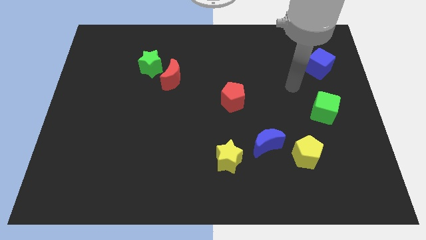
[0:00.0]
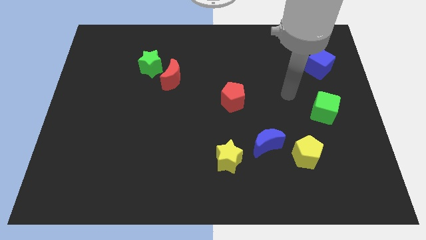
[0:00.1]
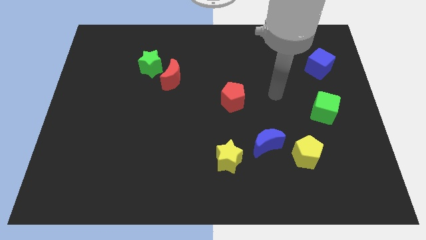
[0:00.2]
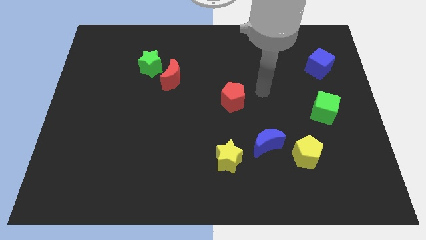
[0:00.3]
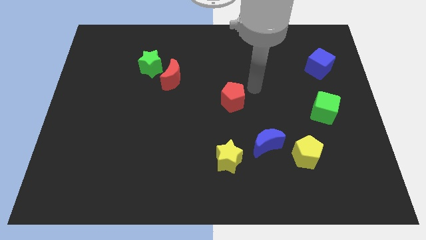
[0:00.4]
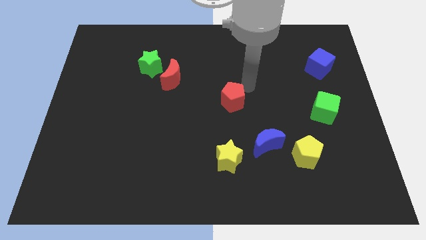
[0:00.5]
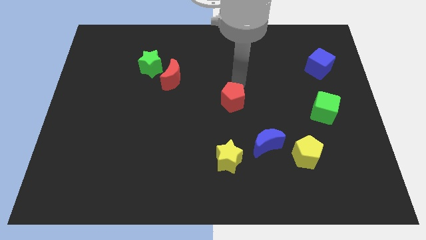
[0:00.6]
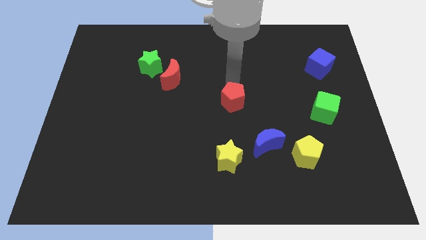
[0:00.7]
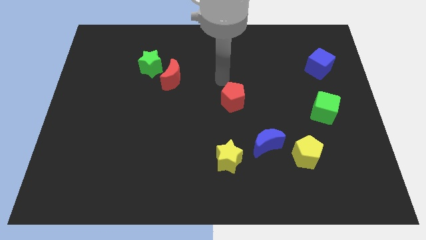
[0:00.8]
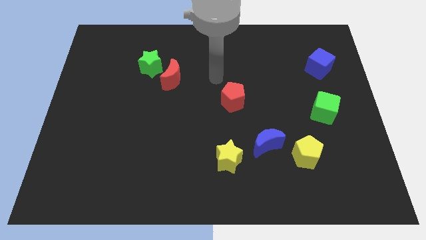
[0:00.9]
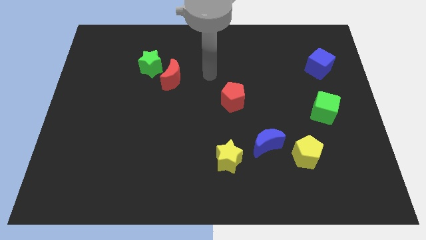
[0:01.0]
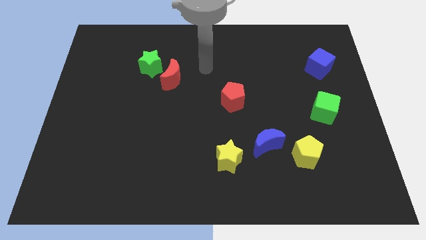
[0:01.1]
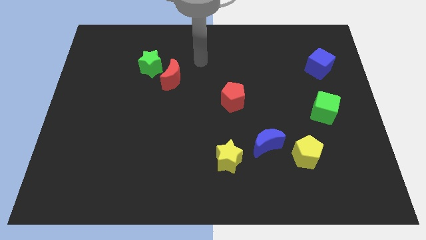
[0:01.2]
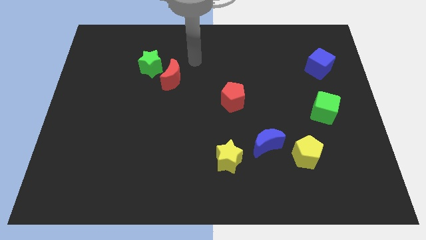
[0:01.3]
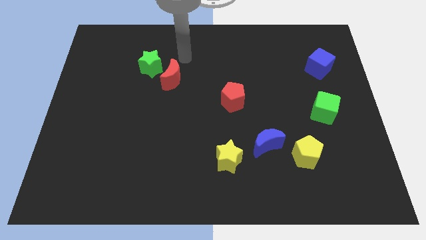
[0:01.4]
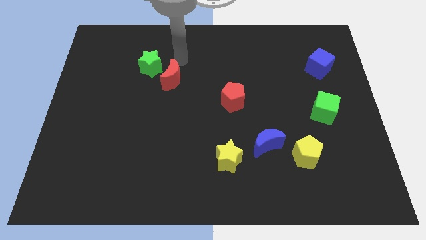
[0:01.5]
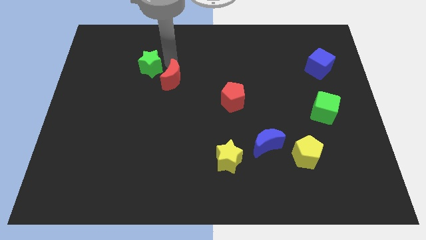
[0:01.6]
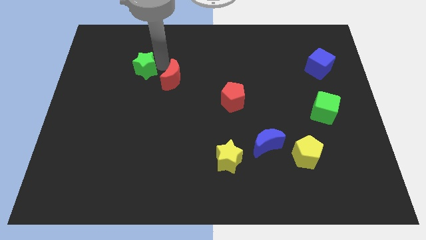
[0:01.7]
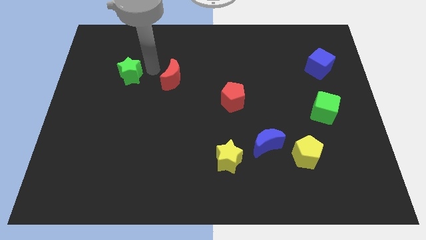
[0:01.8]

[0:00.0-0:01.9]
pull the red moon apart from the green star

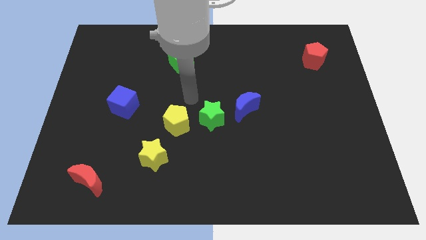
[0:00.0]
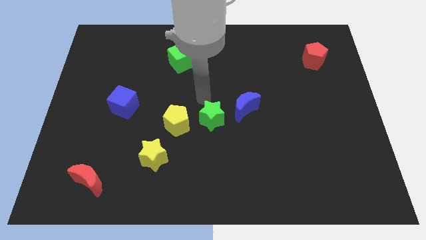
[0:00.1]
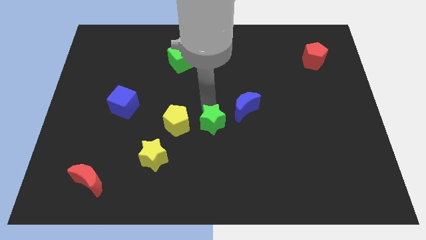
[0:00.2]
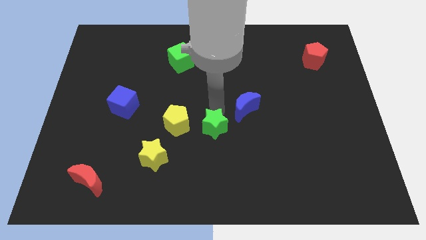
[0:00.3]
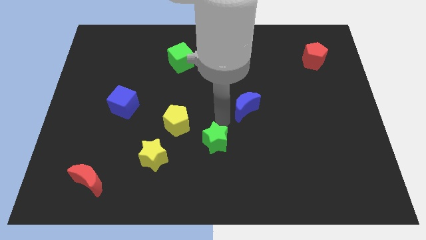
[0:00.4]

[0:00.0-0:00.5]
pull the blue moon apart from the green star

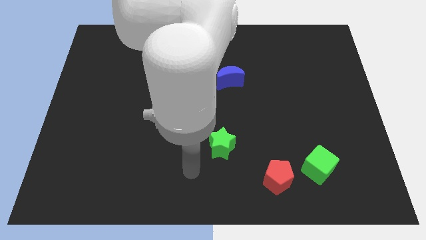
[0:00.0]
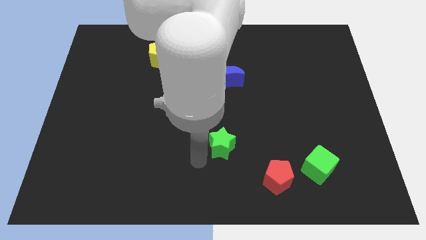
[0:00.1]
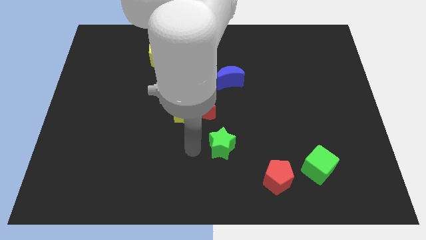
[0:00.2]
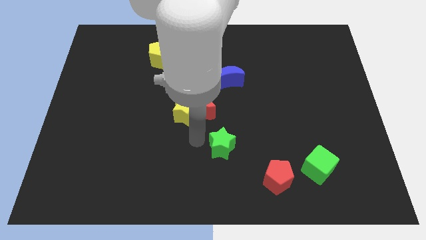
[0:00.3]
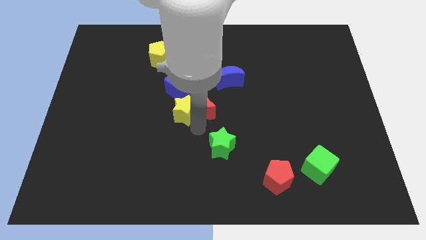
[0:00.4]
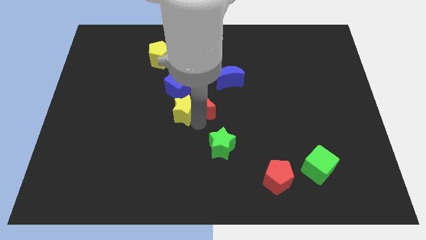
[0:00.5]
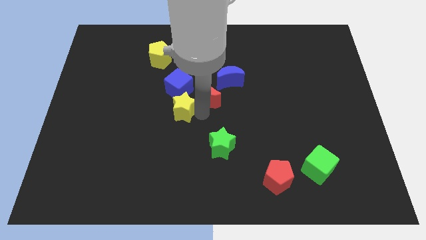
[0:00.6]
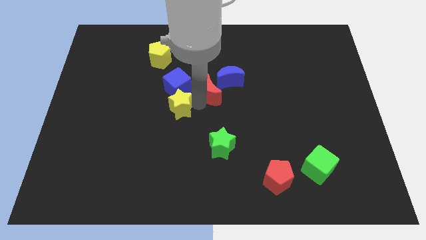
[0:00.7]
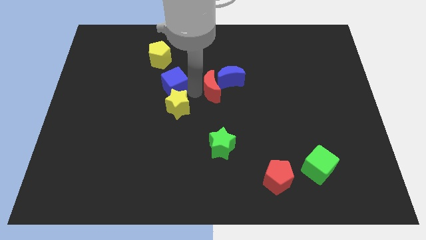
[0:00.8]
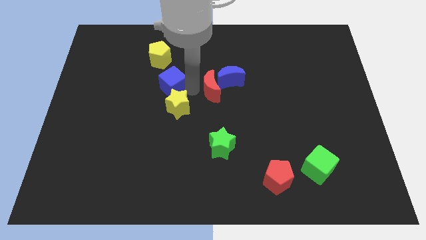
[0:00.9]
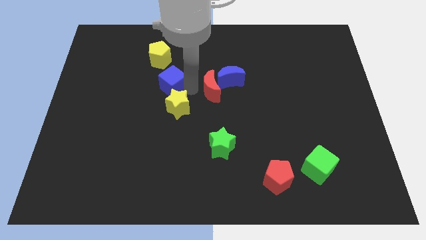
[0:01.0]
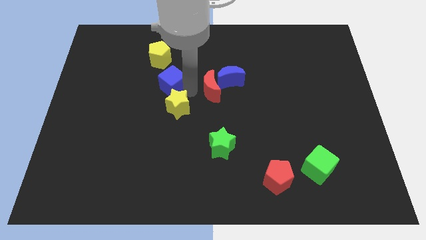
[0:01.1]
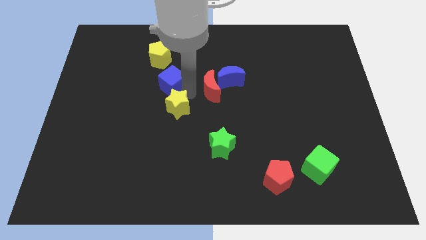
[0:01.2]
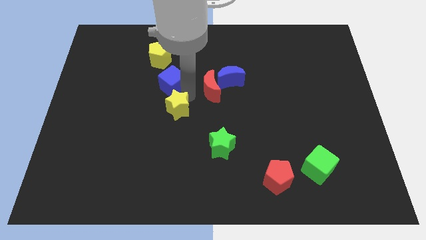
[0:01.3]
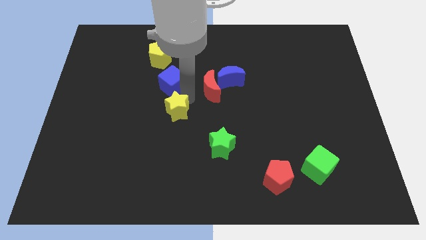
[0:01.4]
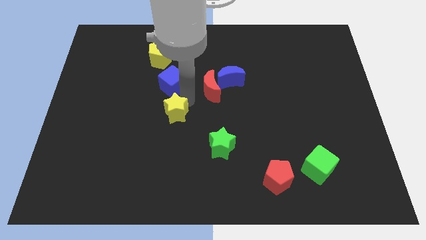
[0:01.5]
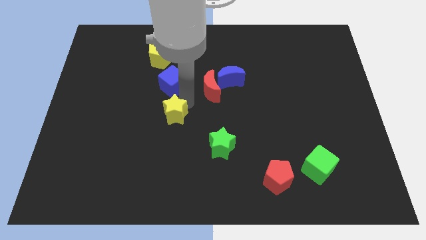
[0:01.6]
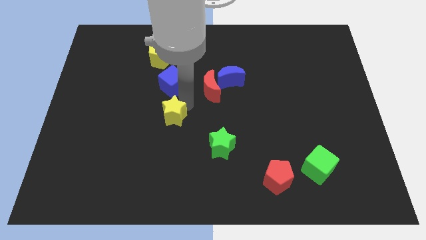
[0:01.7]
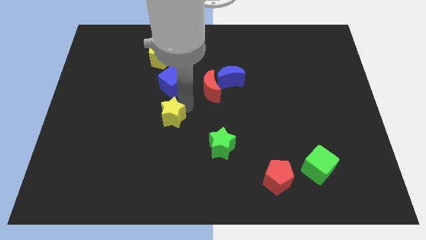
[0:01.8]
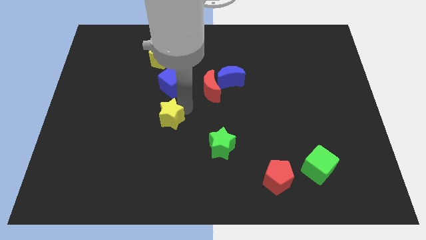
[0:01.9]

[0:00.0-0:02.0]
move the yellow star away from the red moon and blue cube

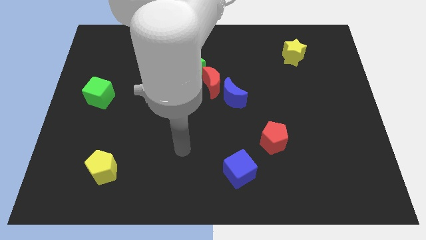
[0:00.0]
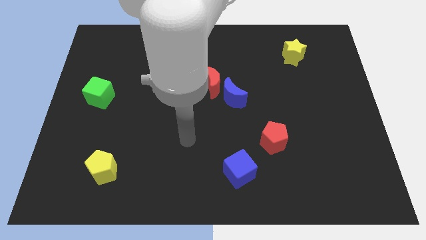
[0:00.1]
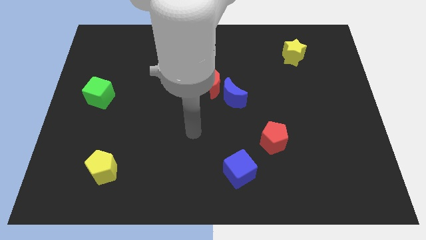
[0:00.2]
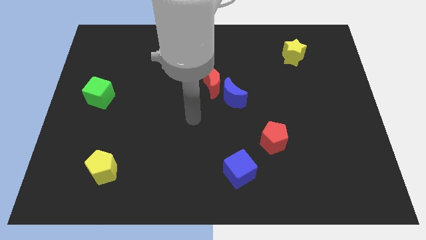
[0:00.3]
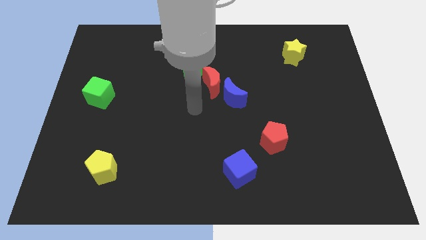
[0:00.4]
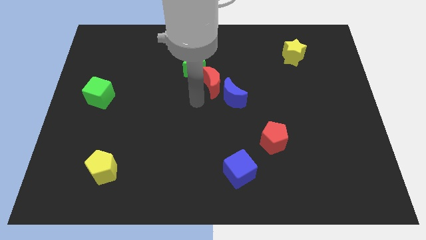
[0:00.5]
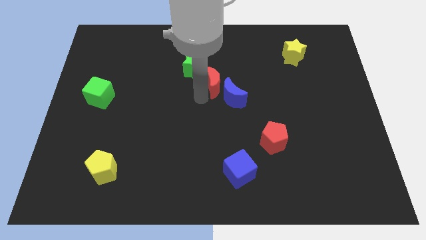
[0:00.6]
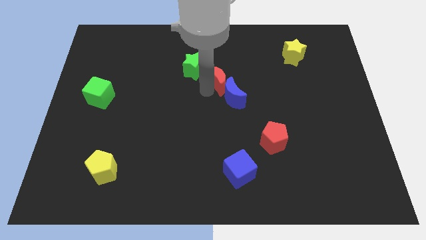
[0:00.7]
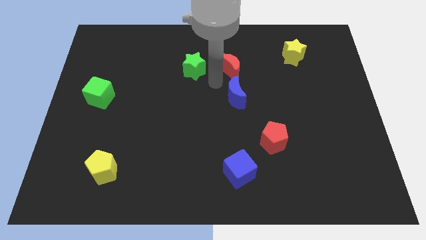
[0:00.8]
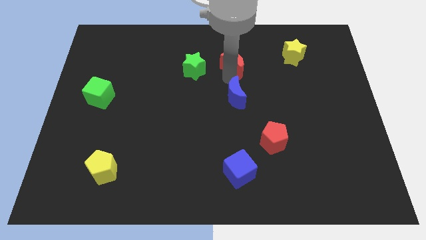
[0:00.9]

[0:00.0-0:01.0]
separate the blue moon from the red moon

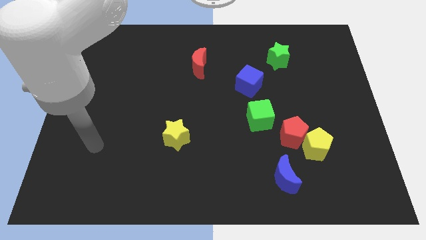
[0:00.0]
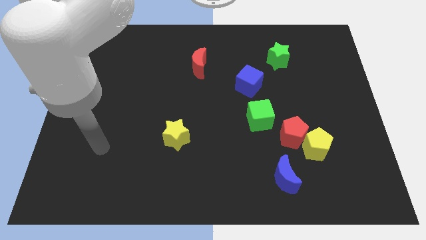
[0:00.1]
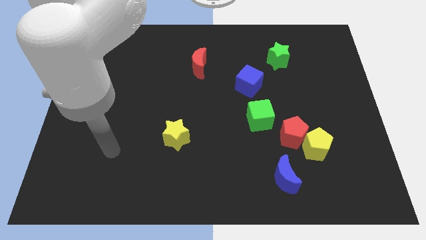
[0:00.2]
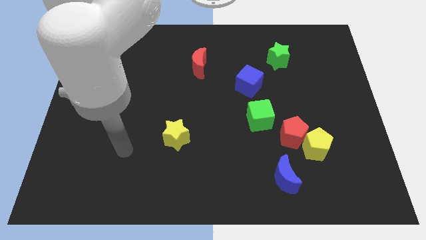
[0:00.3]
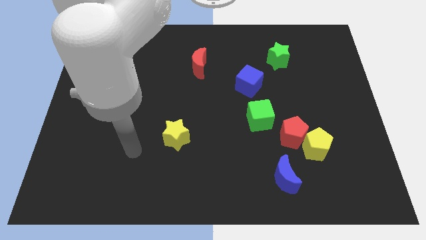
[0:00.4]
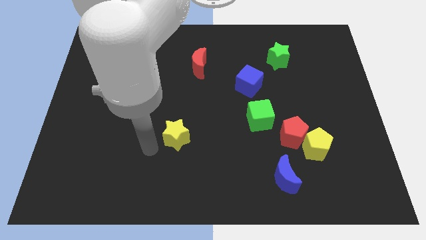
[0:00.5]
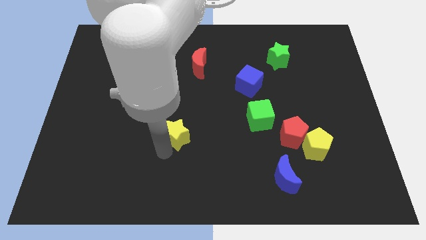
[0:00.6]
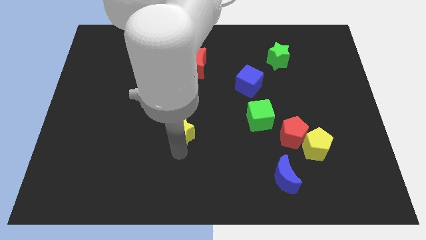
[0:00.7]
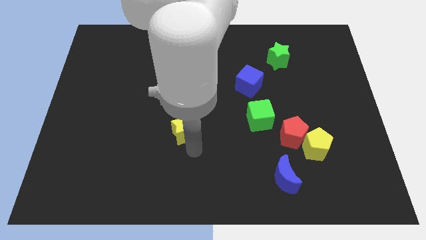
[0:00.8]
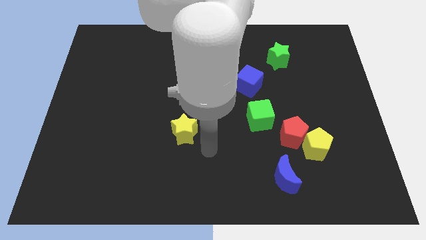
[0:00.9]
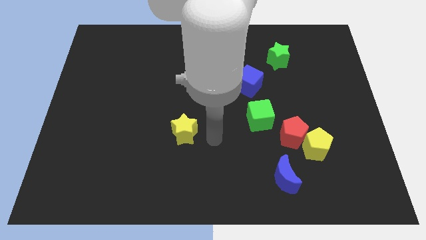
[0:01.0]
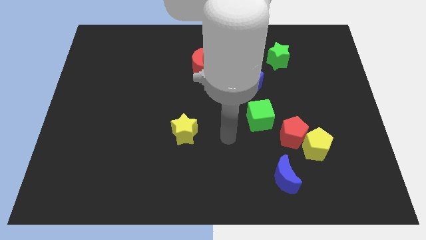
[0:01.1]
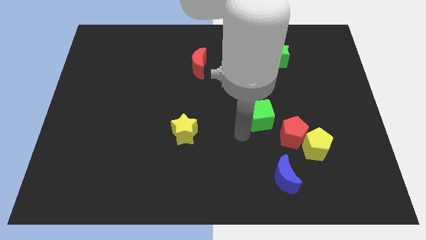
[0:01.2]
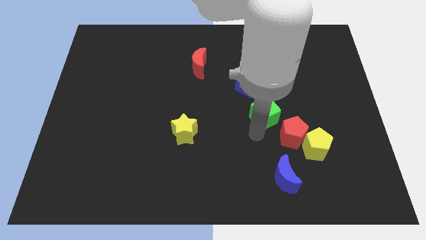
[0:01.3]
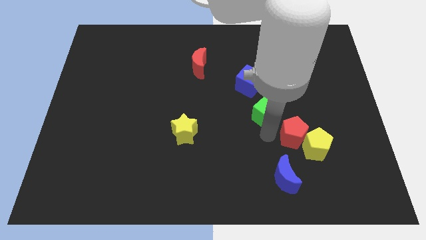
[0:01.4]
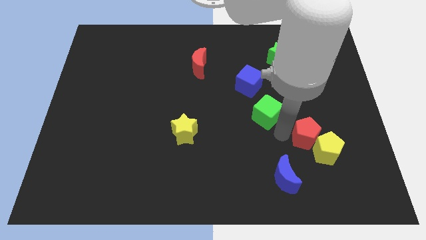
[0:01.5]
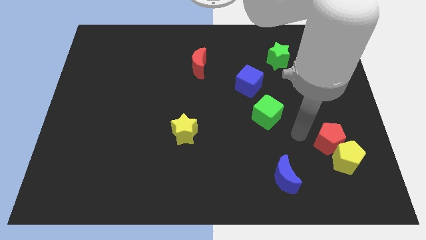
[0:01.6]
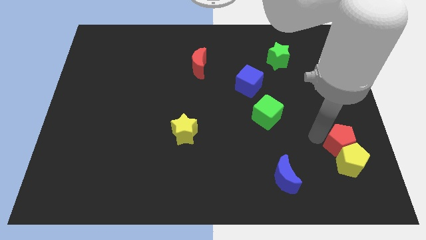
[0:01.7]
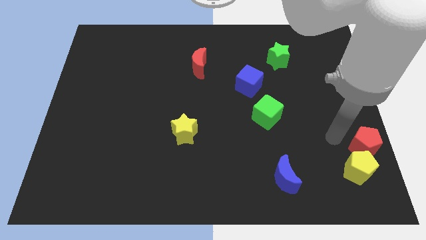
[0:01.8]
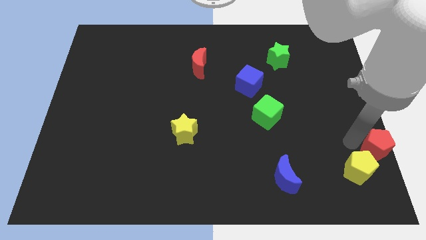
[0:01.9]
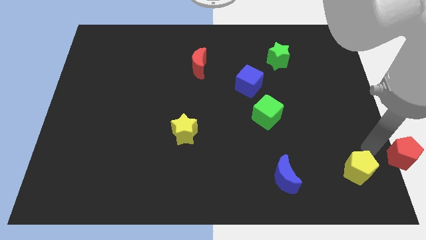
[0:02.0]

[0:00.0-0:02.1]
move the yellow pentagon away from the red pentagon

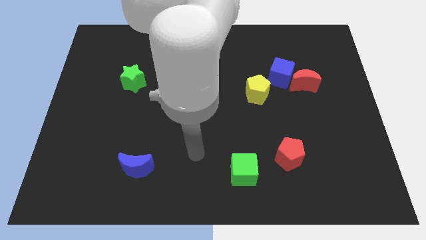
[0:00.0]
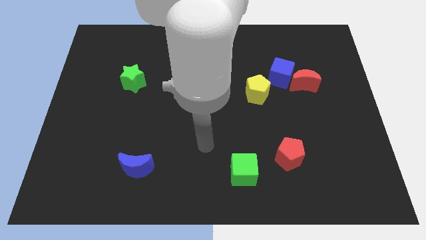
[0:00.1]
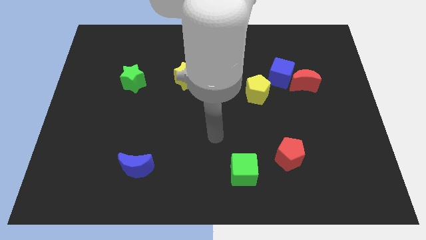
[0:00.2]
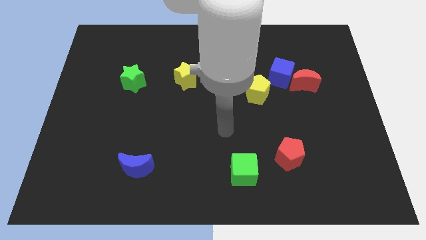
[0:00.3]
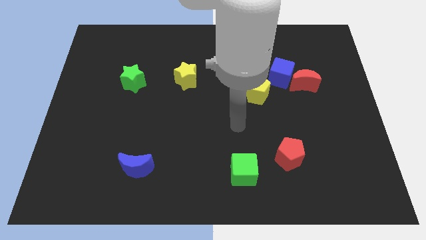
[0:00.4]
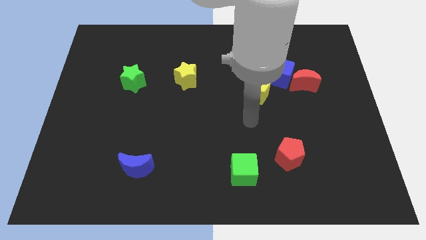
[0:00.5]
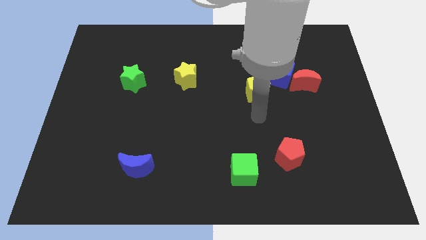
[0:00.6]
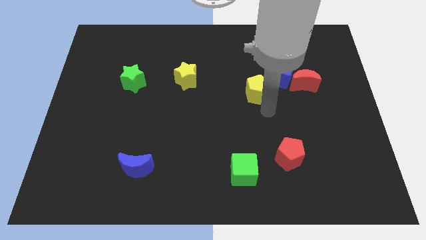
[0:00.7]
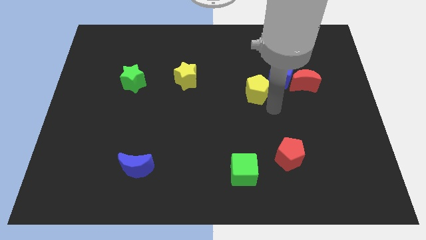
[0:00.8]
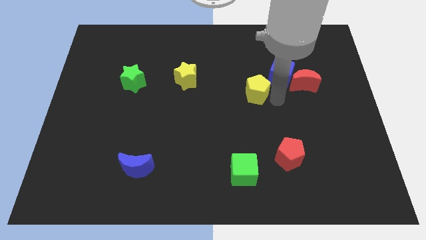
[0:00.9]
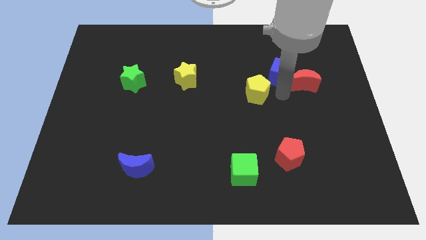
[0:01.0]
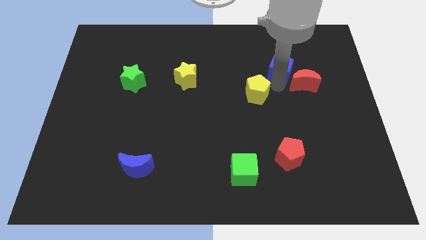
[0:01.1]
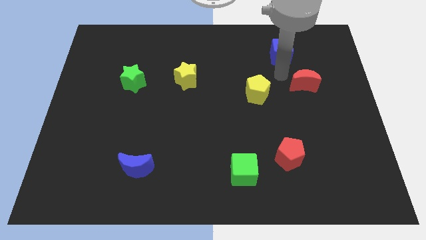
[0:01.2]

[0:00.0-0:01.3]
separate the red moon from the blue cube

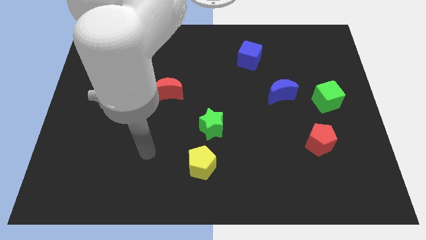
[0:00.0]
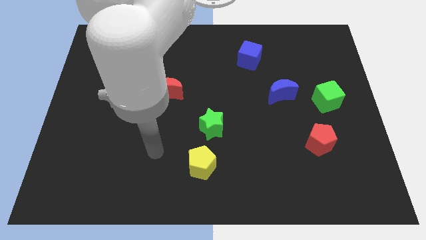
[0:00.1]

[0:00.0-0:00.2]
separate the green star from the yellow pentagon

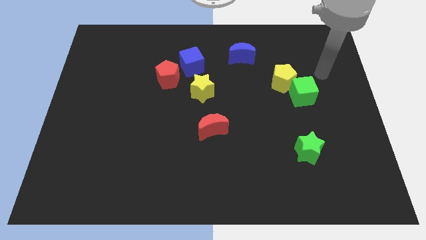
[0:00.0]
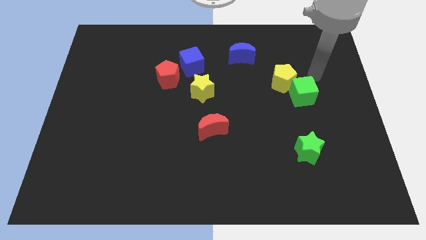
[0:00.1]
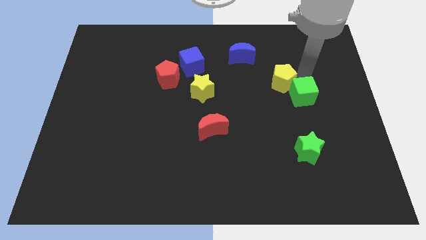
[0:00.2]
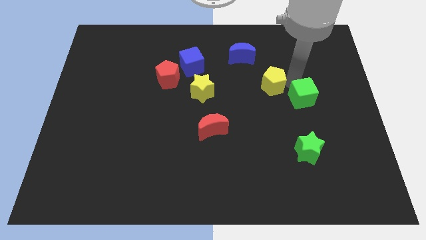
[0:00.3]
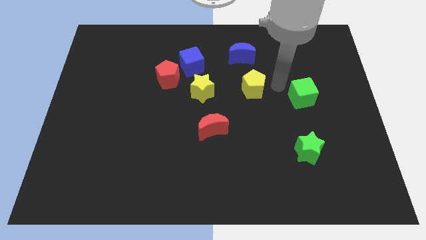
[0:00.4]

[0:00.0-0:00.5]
separate the green cube from the yellow pentagon
